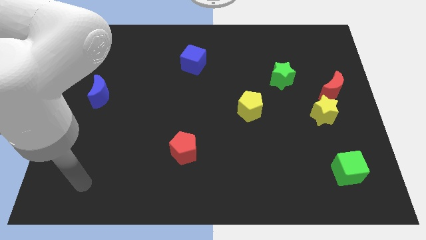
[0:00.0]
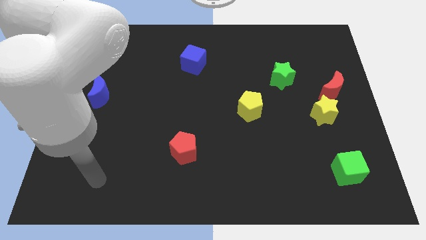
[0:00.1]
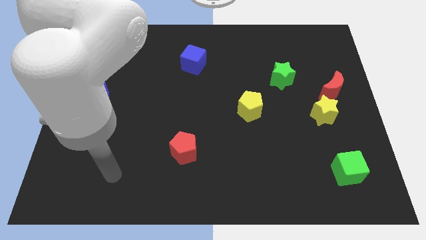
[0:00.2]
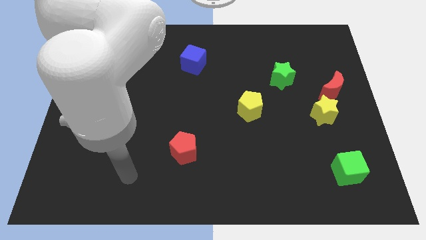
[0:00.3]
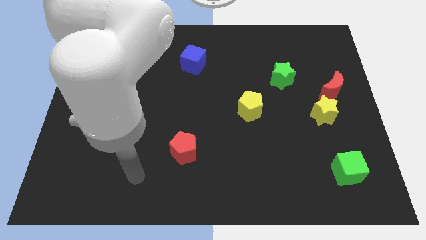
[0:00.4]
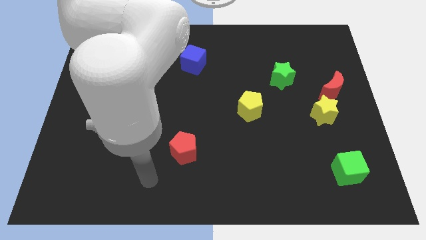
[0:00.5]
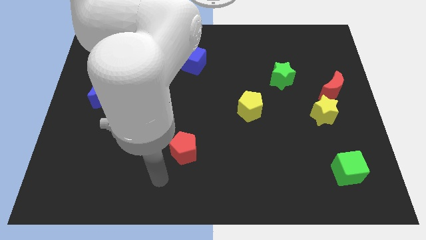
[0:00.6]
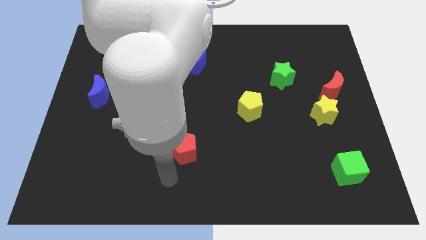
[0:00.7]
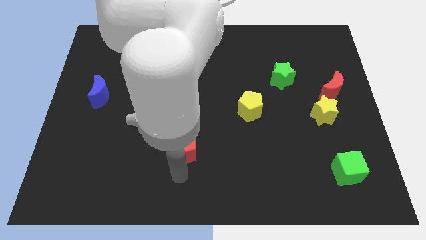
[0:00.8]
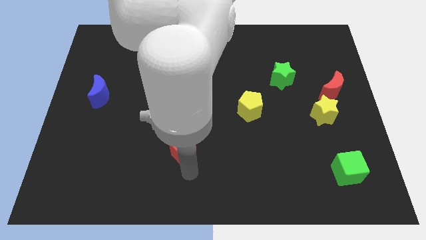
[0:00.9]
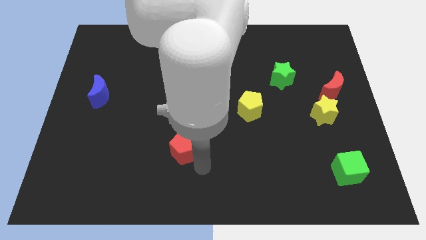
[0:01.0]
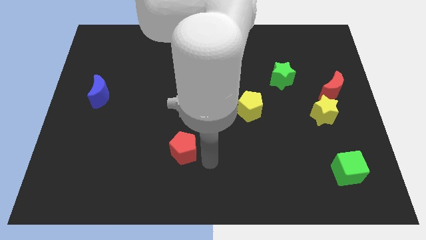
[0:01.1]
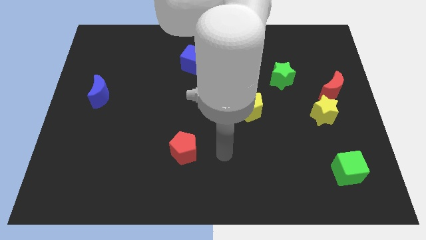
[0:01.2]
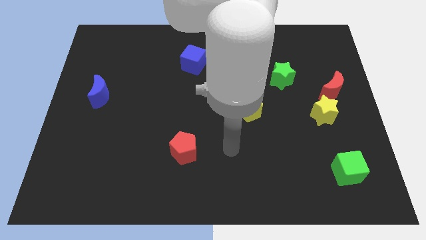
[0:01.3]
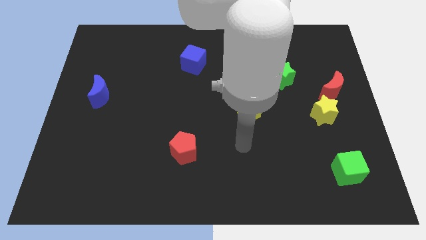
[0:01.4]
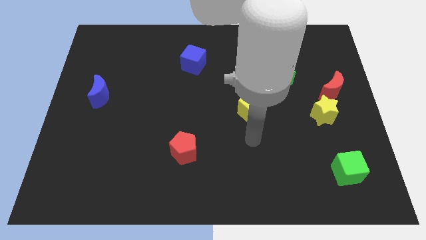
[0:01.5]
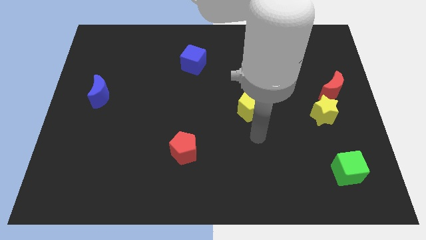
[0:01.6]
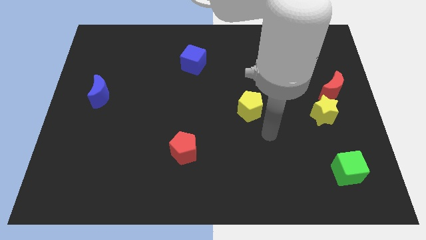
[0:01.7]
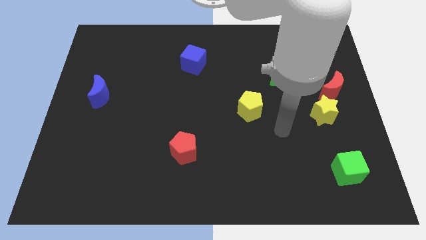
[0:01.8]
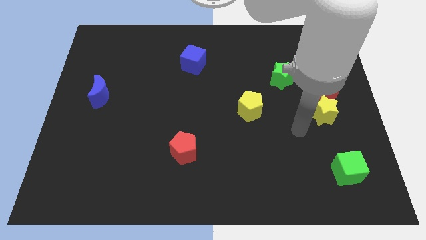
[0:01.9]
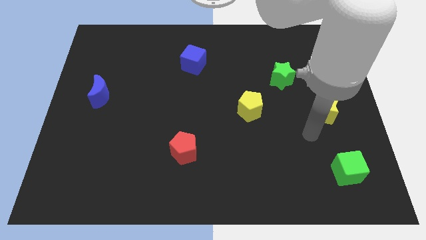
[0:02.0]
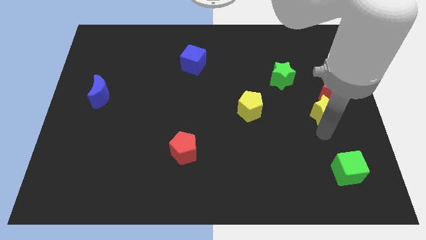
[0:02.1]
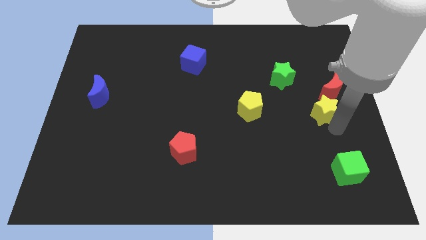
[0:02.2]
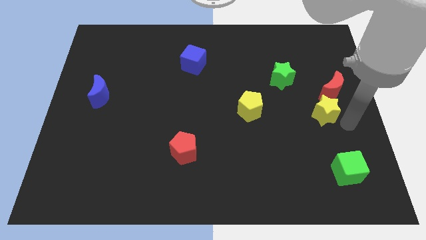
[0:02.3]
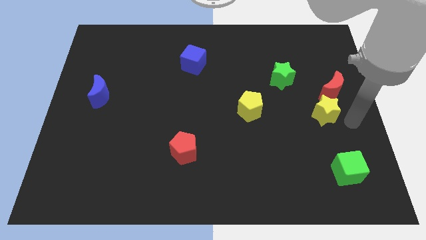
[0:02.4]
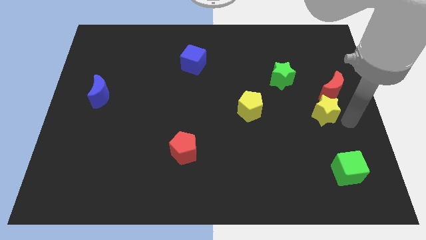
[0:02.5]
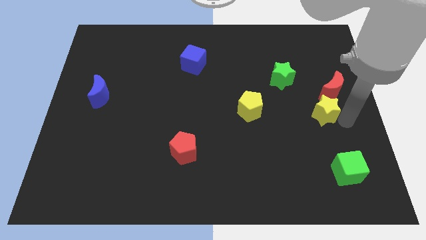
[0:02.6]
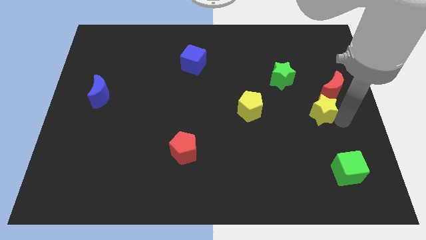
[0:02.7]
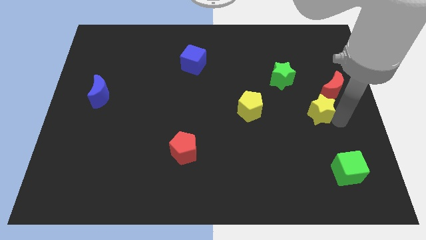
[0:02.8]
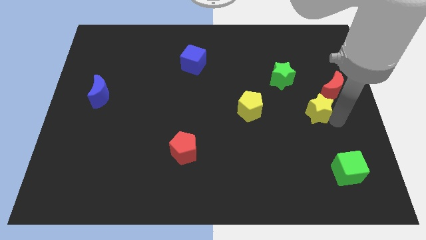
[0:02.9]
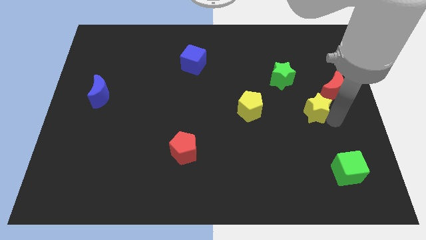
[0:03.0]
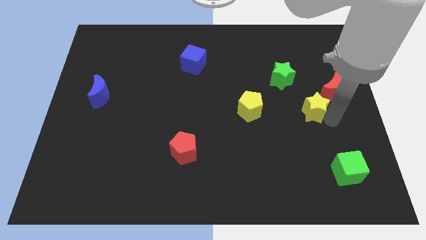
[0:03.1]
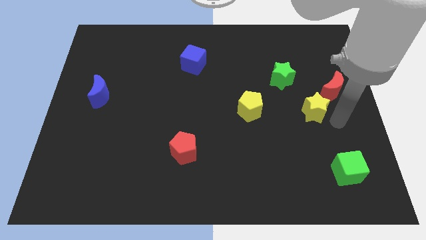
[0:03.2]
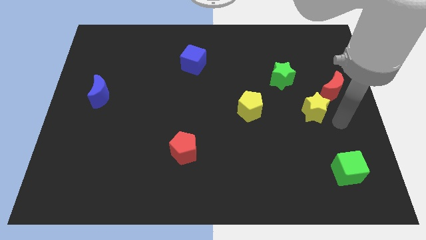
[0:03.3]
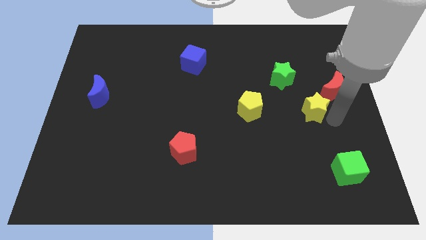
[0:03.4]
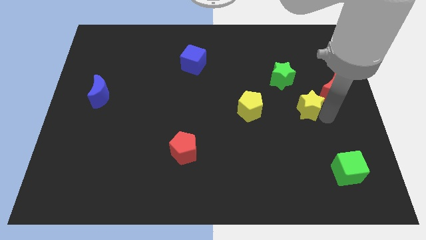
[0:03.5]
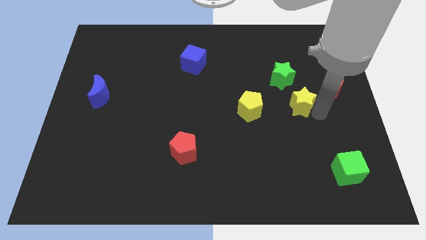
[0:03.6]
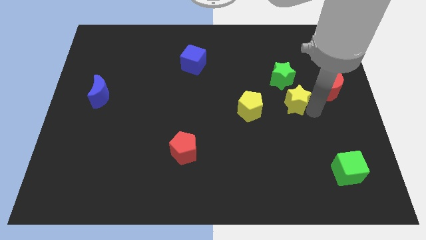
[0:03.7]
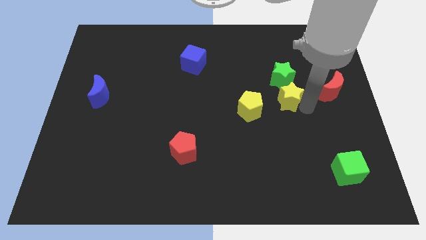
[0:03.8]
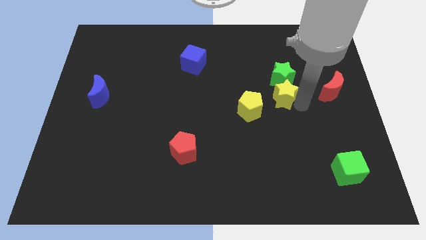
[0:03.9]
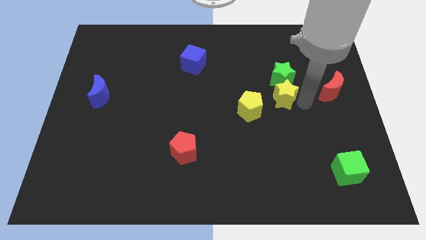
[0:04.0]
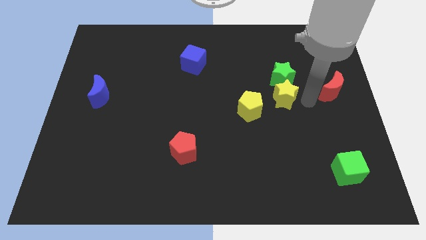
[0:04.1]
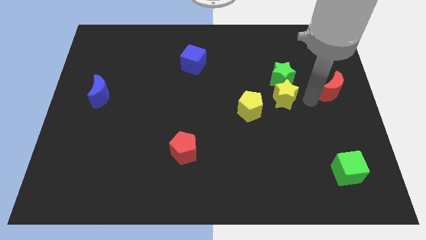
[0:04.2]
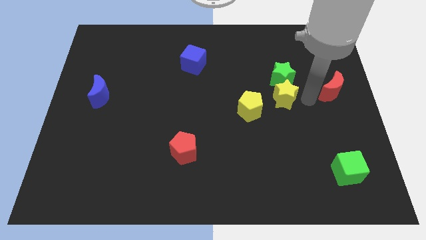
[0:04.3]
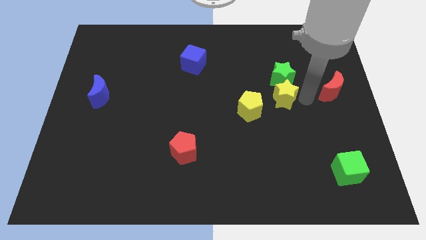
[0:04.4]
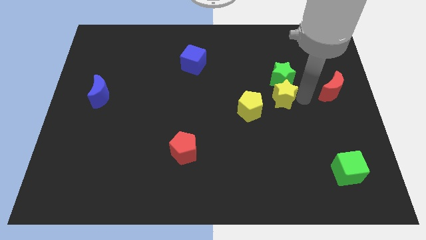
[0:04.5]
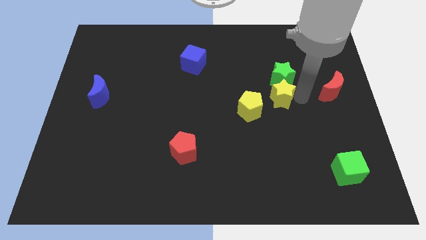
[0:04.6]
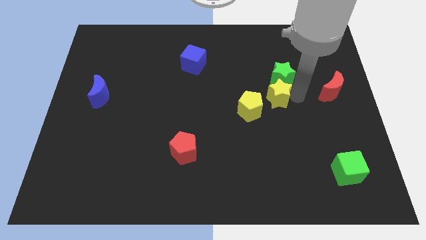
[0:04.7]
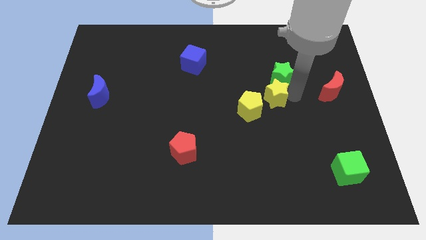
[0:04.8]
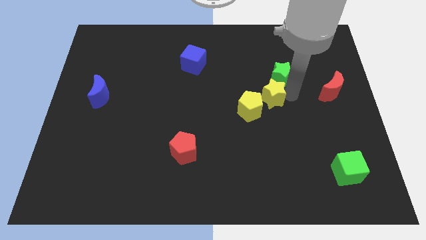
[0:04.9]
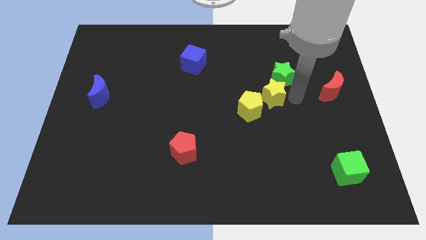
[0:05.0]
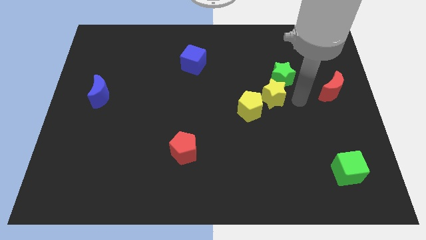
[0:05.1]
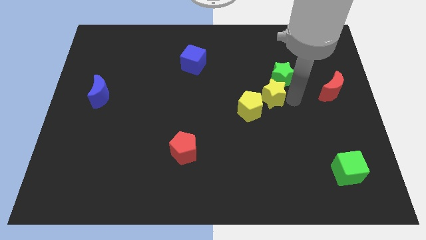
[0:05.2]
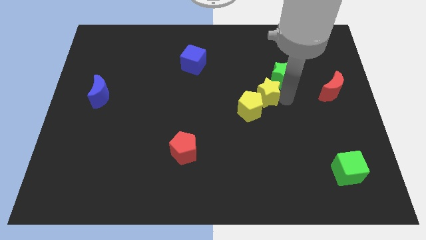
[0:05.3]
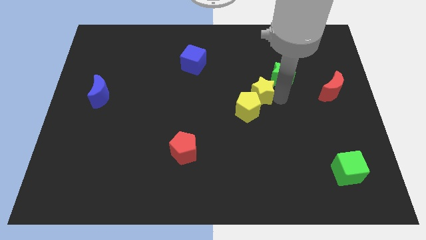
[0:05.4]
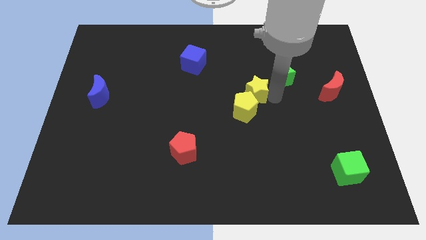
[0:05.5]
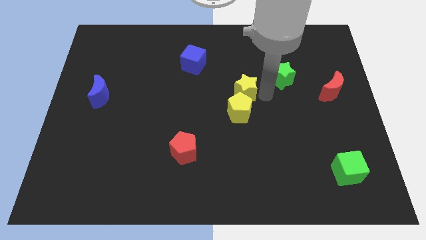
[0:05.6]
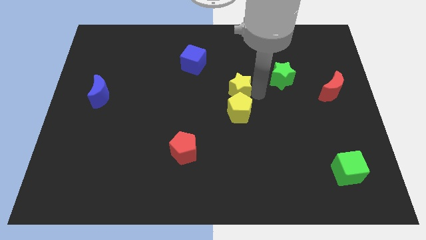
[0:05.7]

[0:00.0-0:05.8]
slide the yellow star diagonally up and to the left of the yellow pentagon

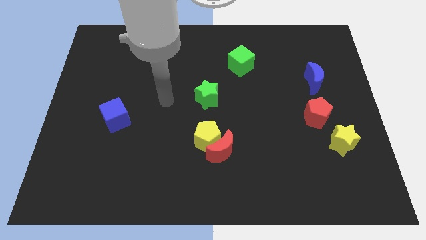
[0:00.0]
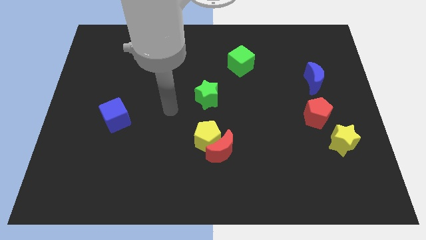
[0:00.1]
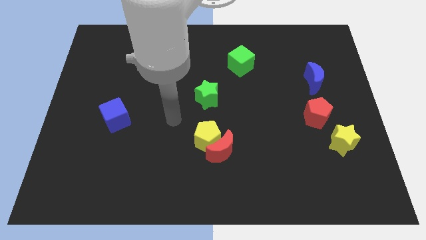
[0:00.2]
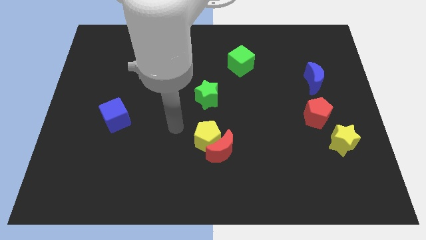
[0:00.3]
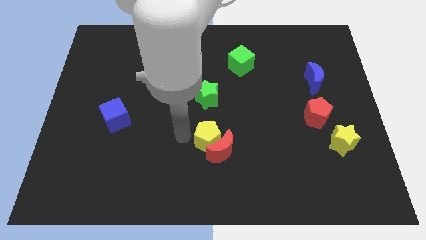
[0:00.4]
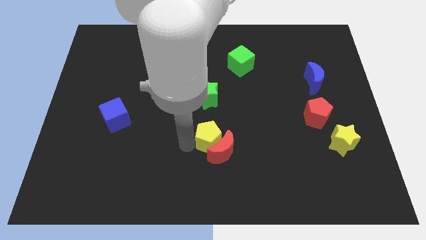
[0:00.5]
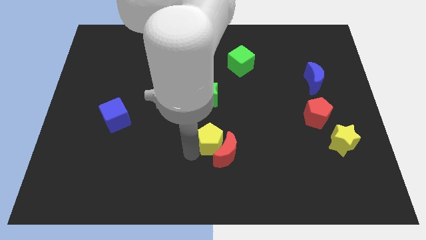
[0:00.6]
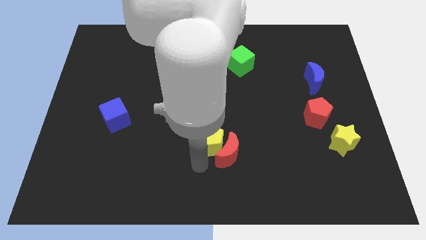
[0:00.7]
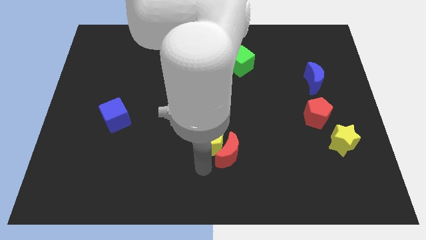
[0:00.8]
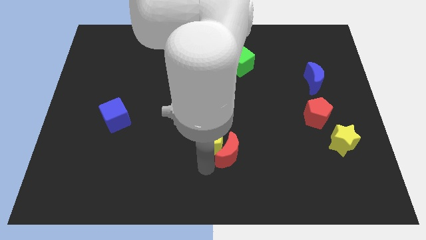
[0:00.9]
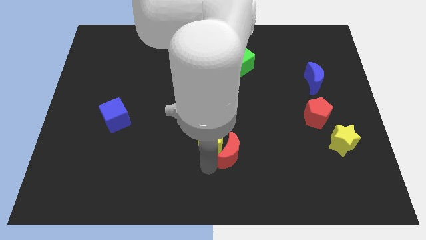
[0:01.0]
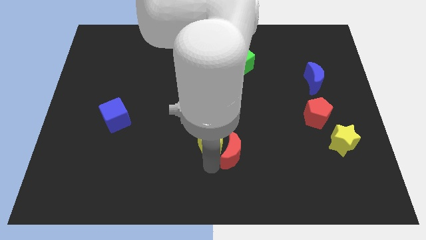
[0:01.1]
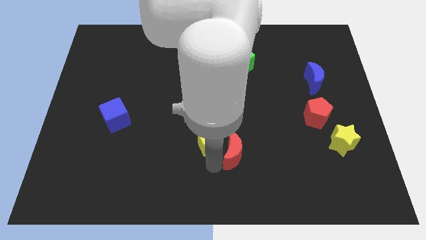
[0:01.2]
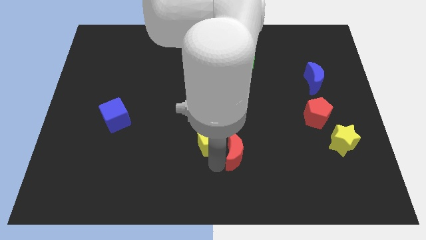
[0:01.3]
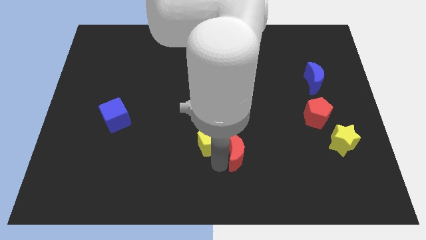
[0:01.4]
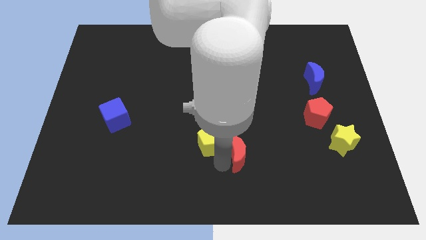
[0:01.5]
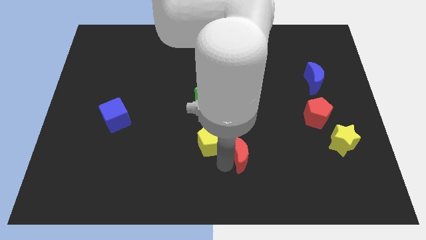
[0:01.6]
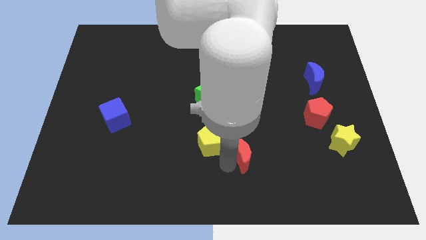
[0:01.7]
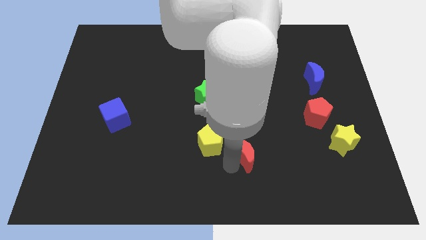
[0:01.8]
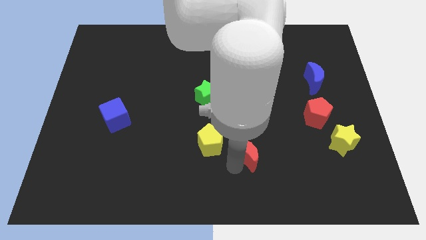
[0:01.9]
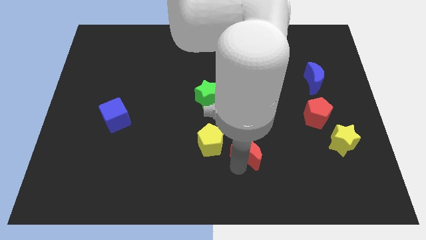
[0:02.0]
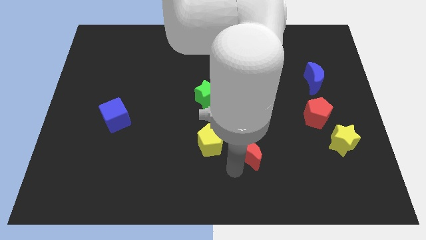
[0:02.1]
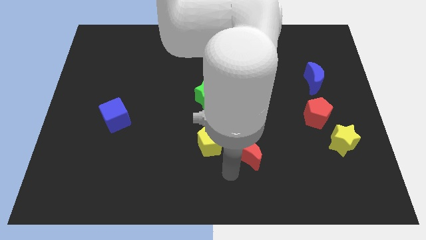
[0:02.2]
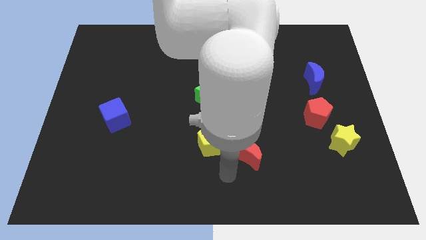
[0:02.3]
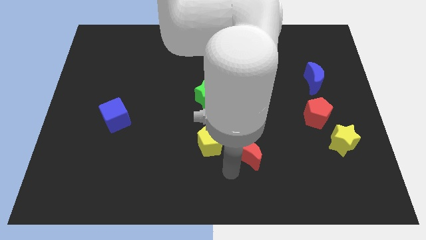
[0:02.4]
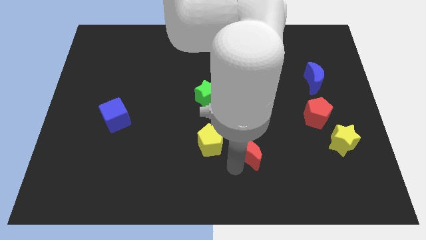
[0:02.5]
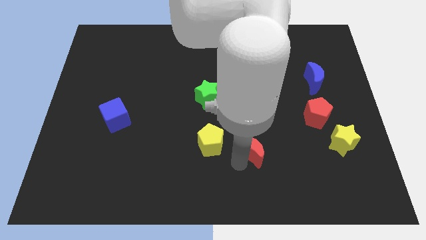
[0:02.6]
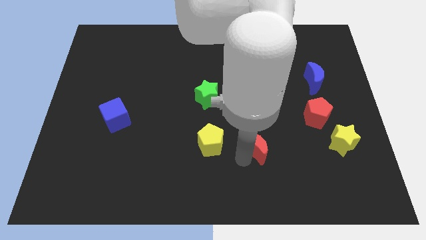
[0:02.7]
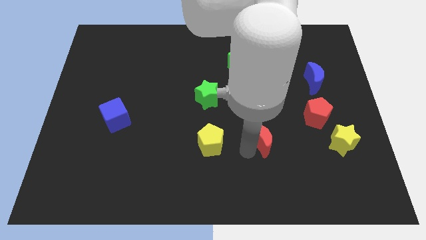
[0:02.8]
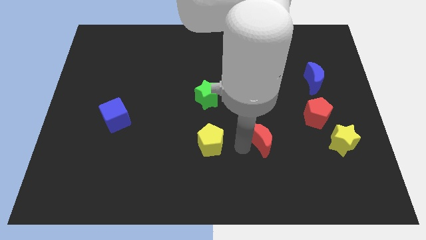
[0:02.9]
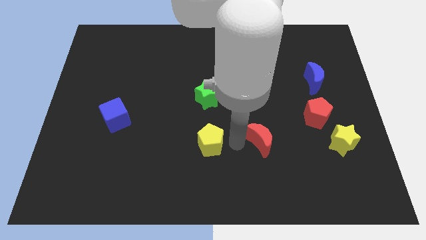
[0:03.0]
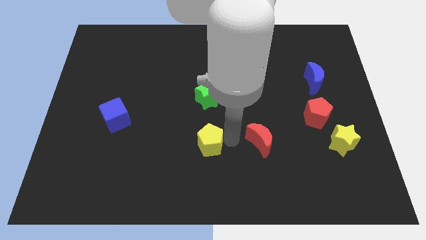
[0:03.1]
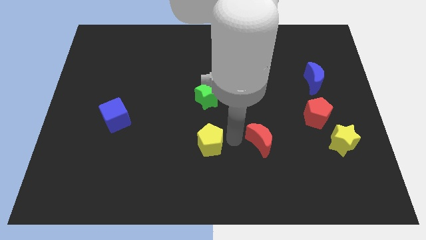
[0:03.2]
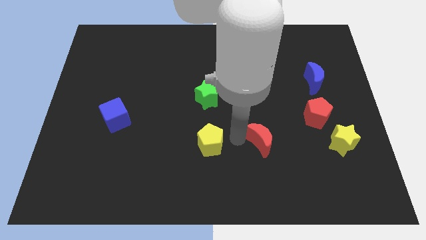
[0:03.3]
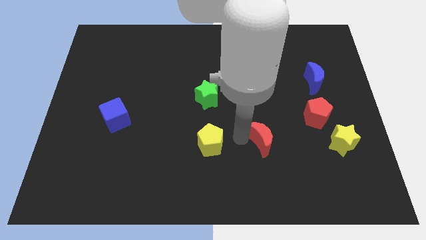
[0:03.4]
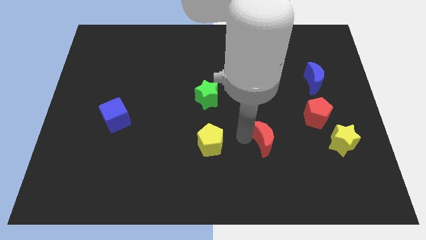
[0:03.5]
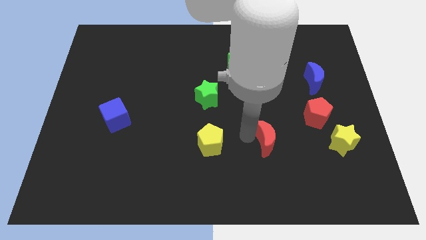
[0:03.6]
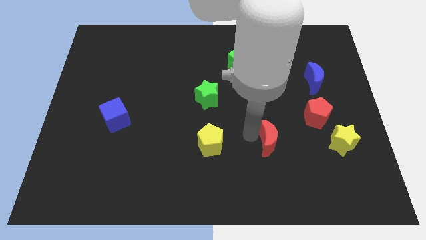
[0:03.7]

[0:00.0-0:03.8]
put the red moon just left of the yellow star
